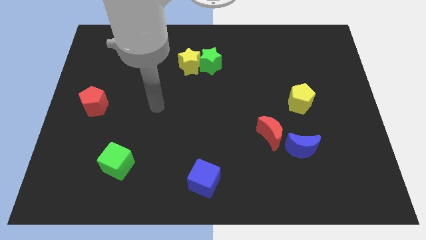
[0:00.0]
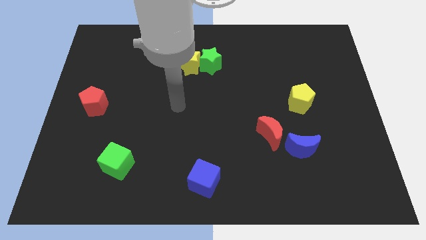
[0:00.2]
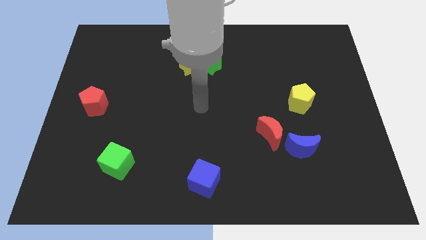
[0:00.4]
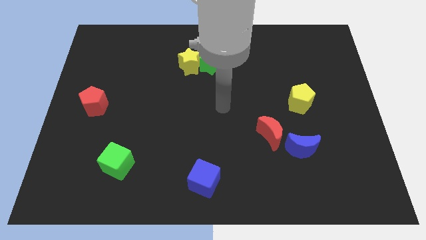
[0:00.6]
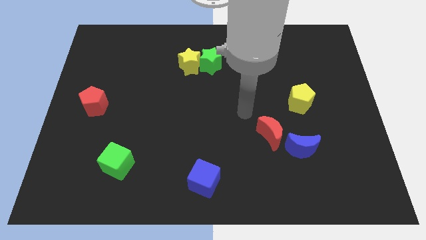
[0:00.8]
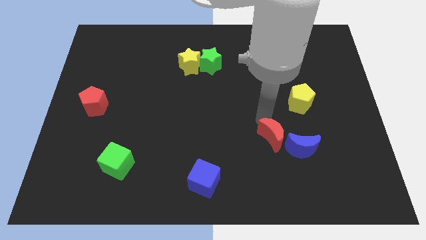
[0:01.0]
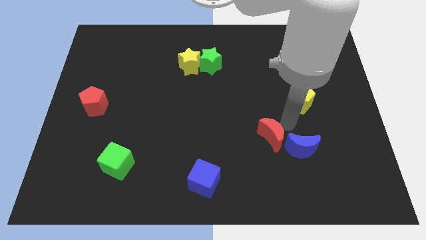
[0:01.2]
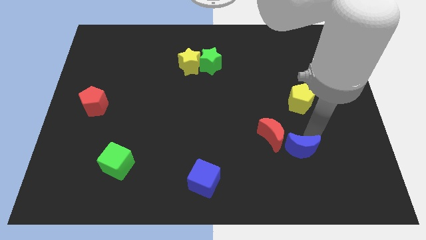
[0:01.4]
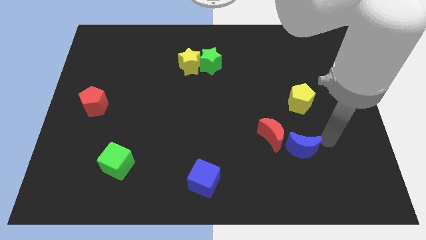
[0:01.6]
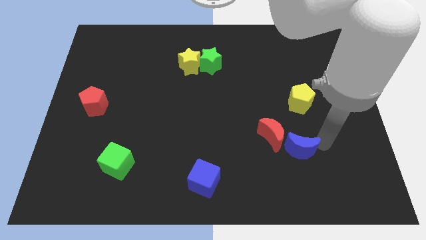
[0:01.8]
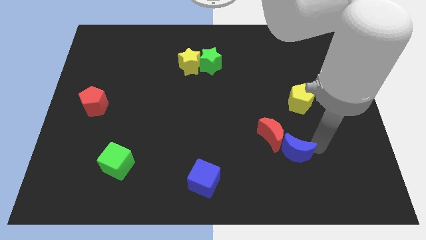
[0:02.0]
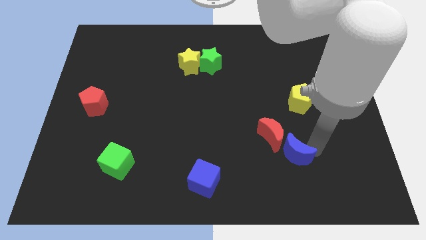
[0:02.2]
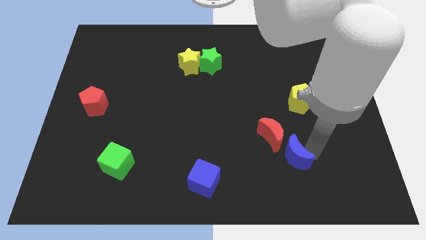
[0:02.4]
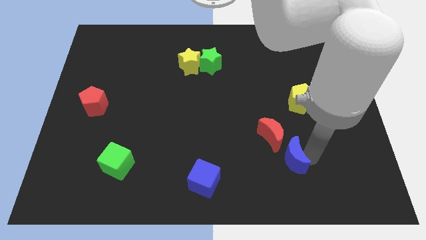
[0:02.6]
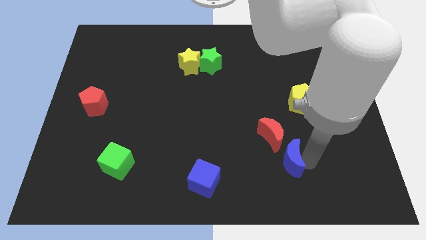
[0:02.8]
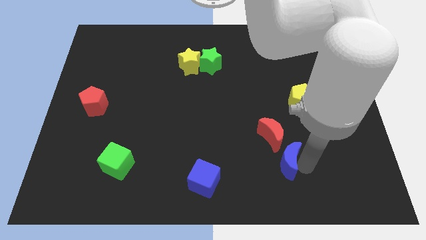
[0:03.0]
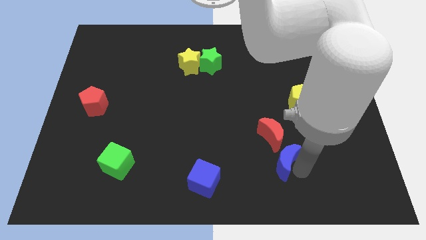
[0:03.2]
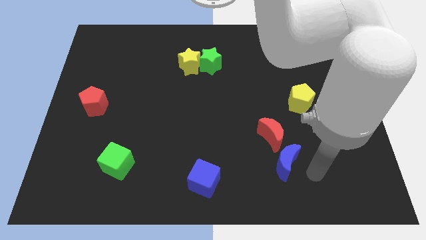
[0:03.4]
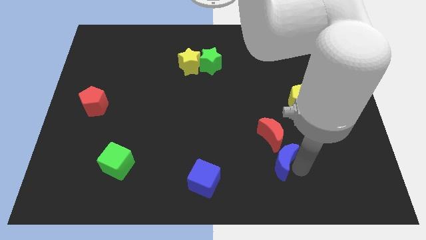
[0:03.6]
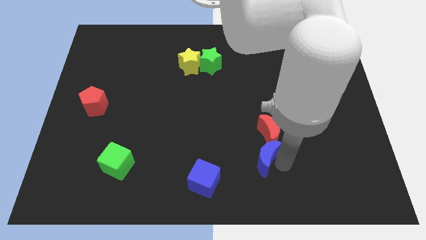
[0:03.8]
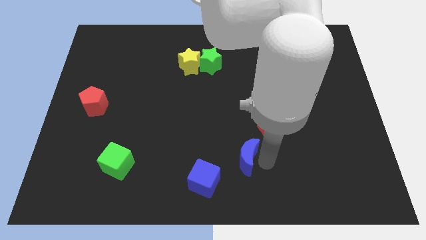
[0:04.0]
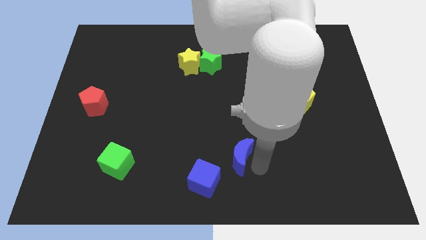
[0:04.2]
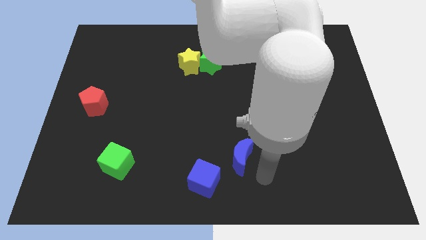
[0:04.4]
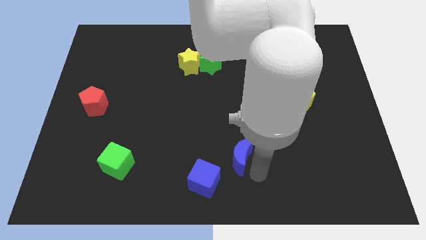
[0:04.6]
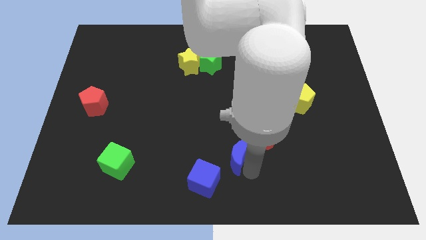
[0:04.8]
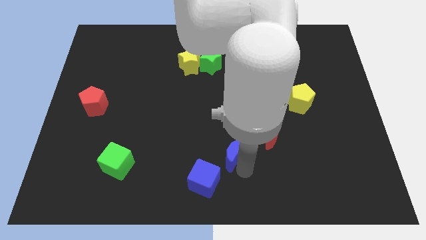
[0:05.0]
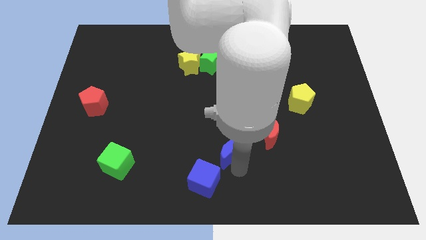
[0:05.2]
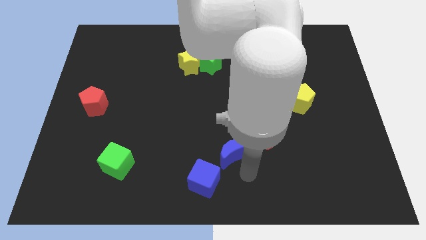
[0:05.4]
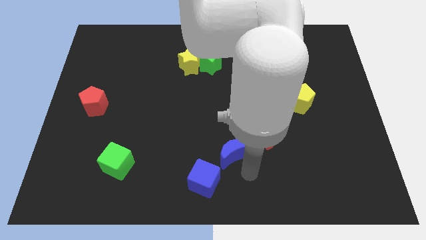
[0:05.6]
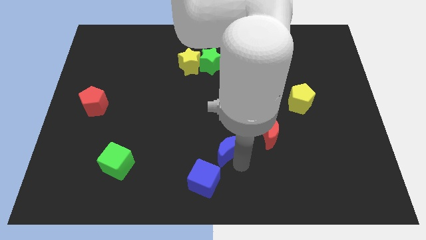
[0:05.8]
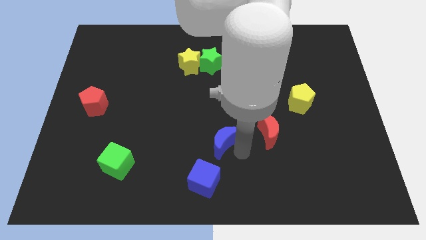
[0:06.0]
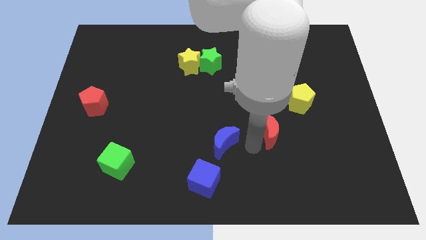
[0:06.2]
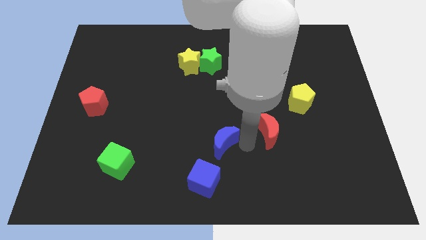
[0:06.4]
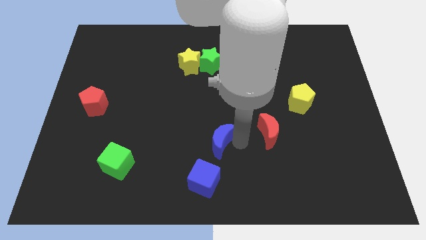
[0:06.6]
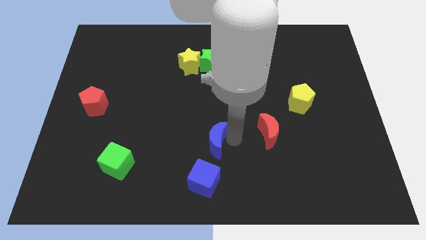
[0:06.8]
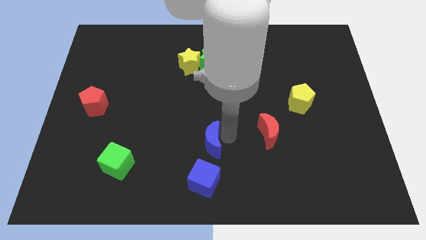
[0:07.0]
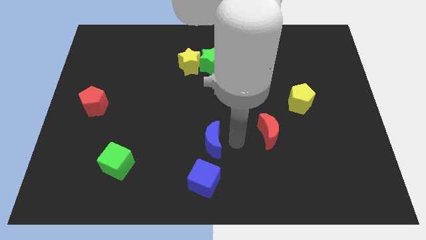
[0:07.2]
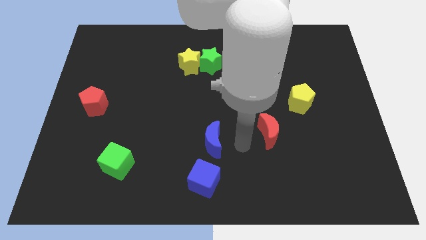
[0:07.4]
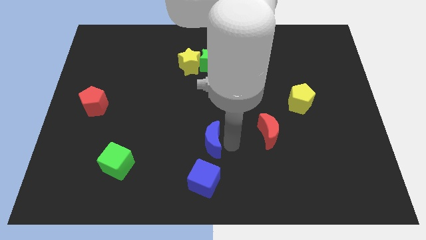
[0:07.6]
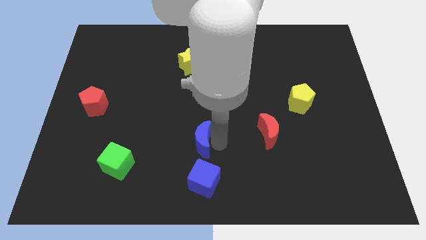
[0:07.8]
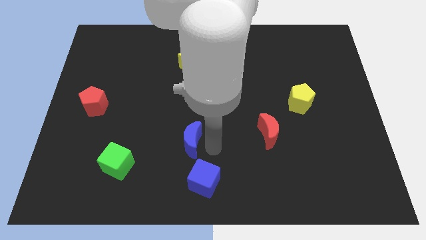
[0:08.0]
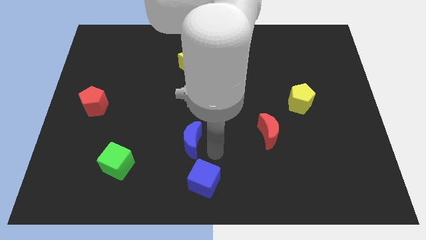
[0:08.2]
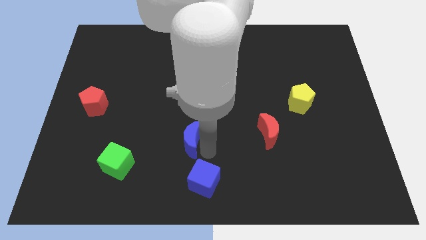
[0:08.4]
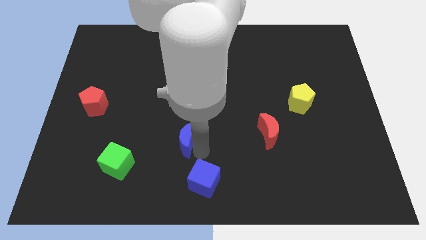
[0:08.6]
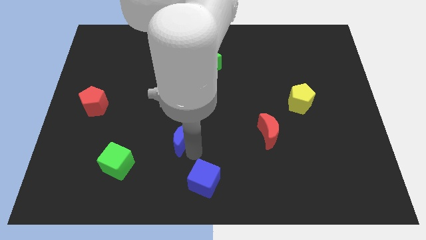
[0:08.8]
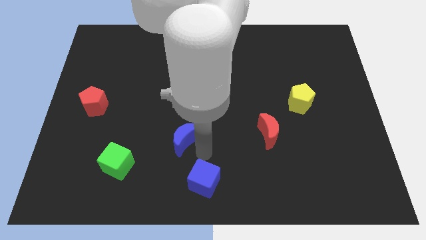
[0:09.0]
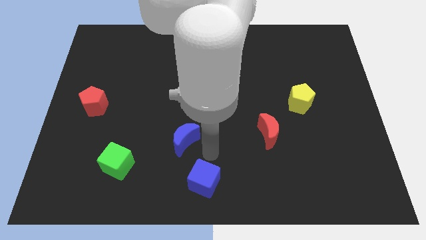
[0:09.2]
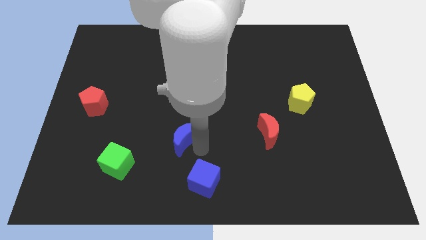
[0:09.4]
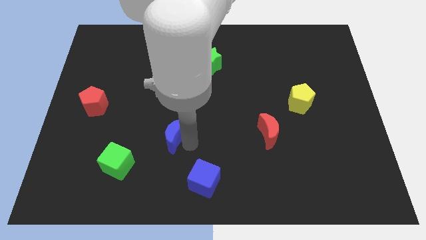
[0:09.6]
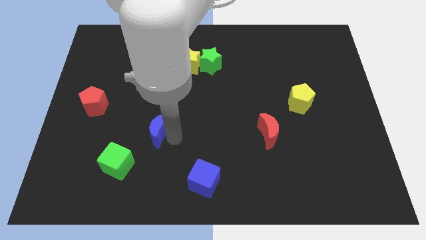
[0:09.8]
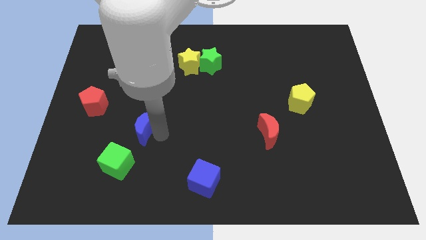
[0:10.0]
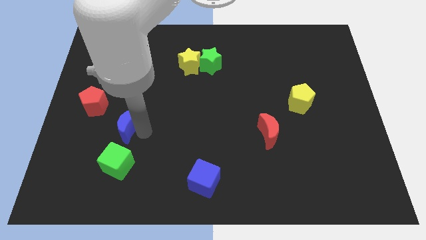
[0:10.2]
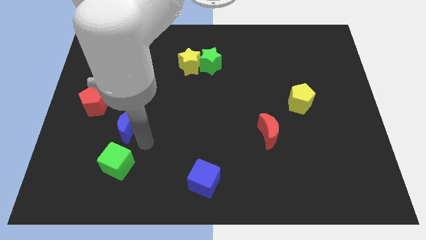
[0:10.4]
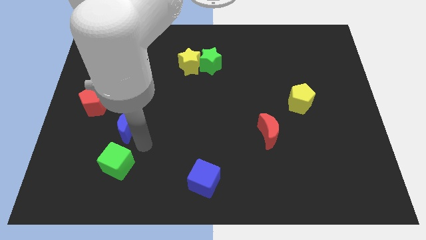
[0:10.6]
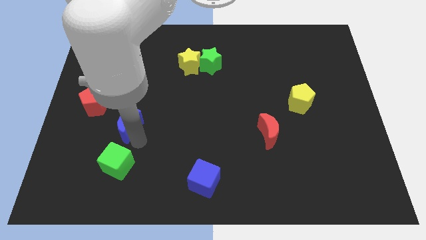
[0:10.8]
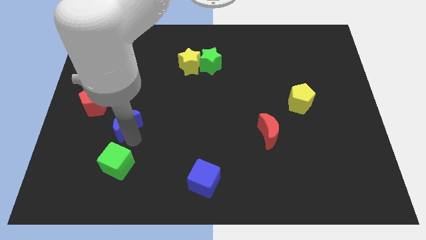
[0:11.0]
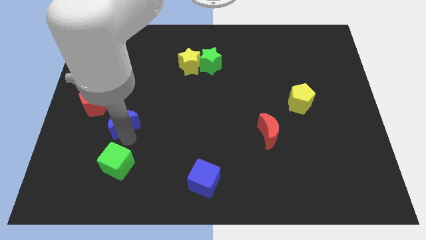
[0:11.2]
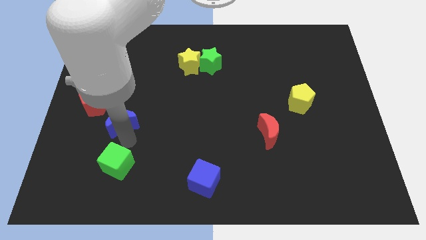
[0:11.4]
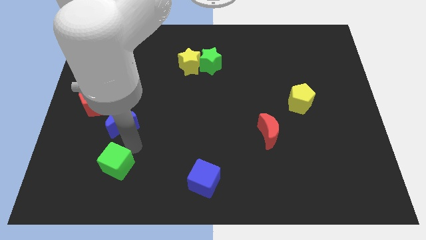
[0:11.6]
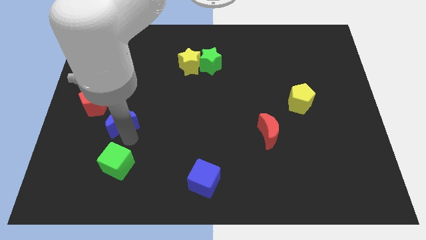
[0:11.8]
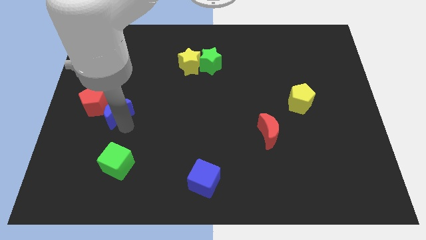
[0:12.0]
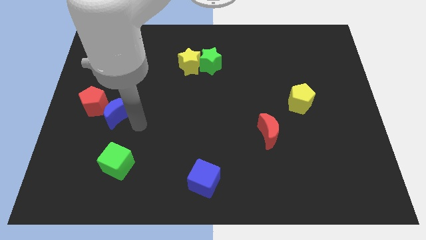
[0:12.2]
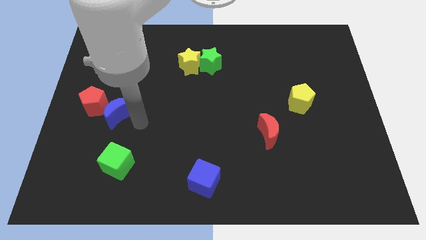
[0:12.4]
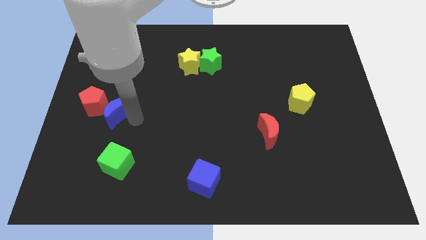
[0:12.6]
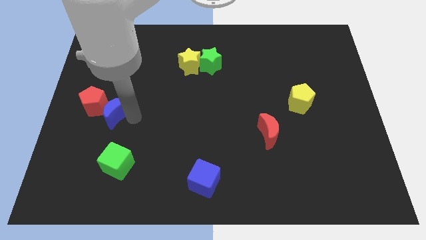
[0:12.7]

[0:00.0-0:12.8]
slide the blue moon close to the red pentagon

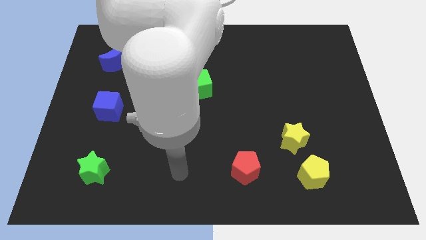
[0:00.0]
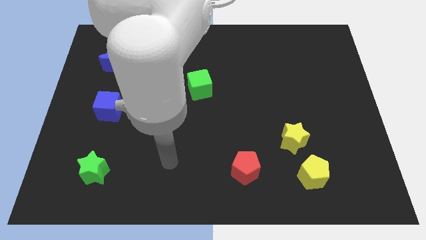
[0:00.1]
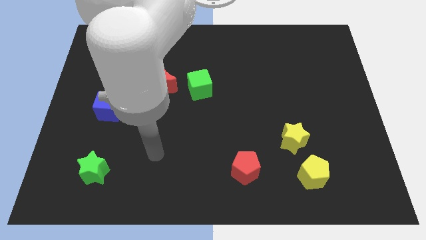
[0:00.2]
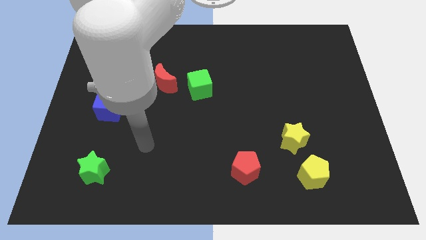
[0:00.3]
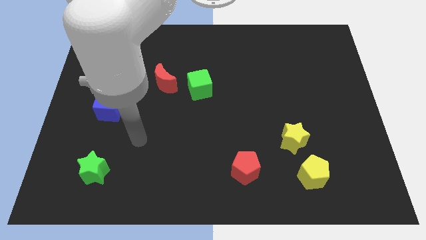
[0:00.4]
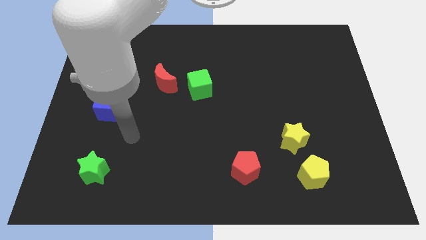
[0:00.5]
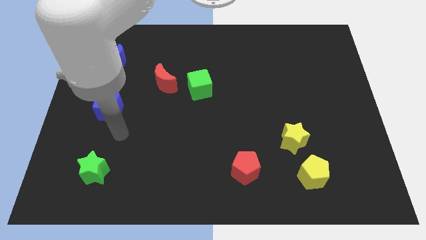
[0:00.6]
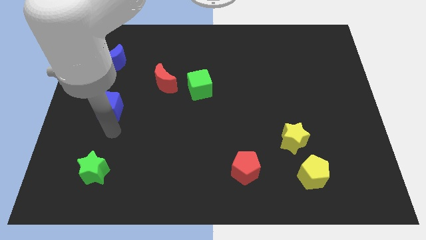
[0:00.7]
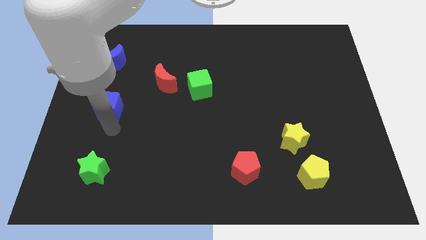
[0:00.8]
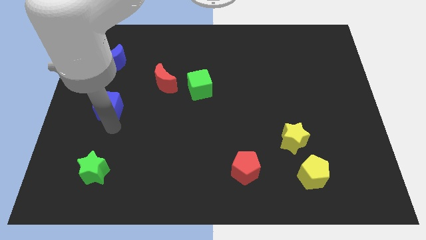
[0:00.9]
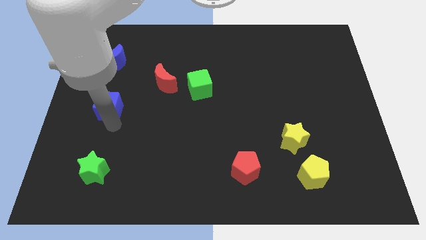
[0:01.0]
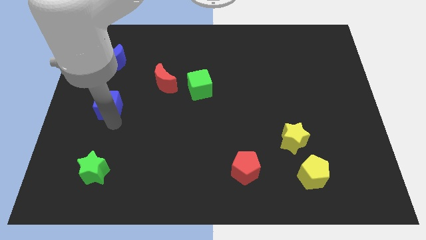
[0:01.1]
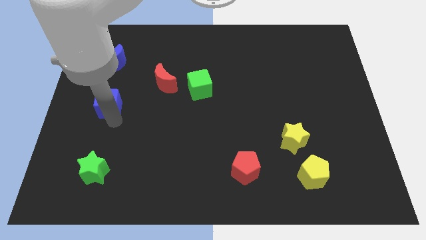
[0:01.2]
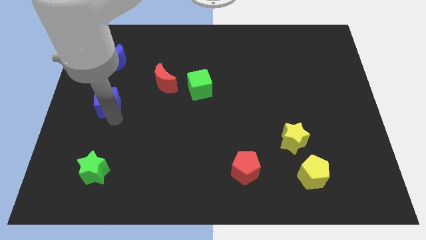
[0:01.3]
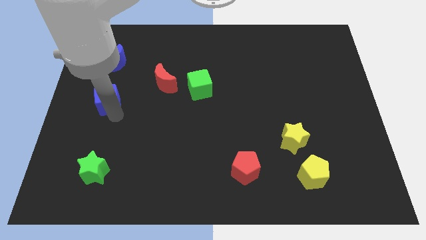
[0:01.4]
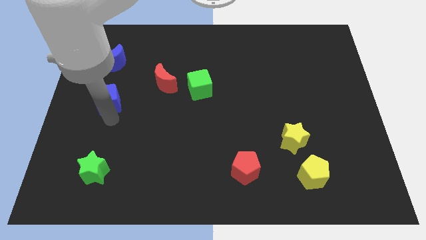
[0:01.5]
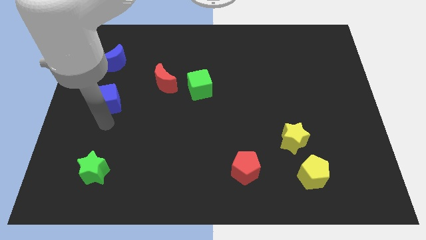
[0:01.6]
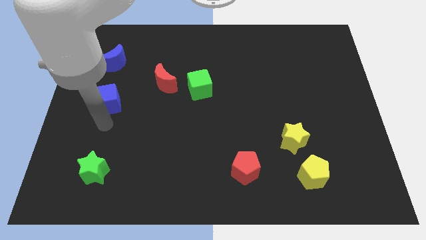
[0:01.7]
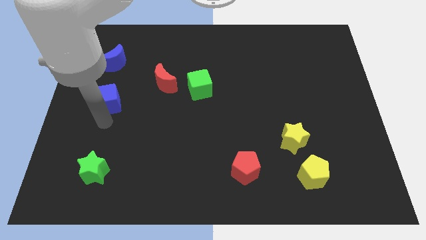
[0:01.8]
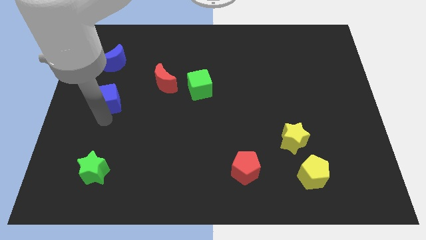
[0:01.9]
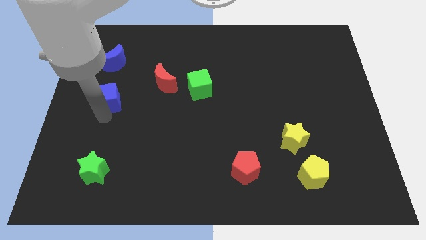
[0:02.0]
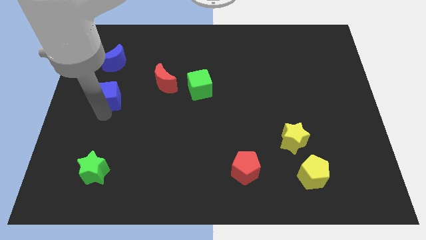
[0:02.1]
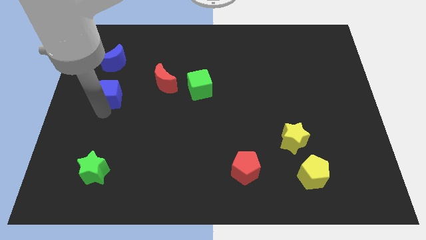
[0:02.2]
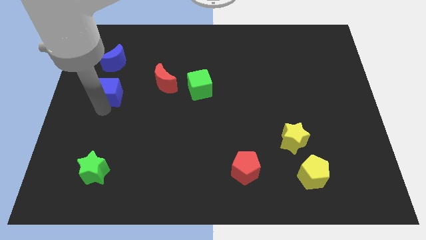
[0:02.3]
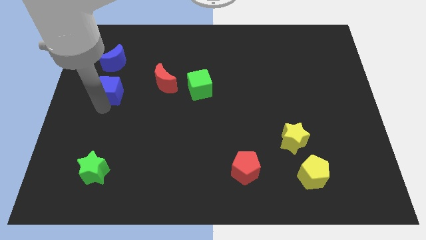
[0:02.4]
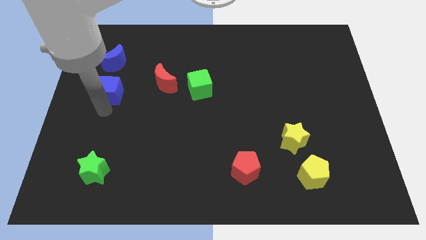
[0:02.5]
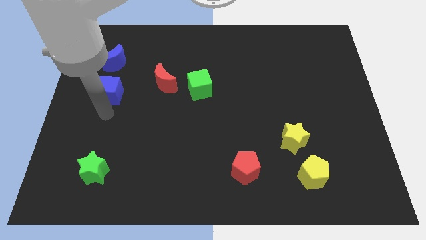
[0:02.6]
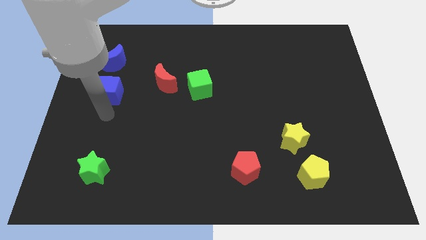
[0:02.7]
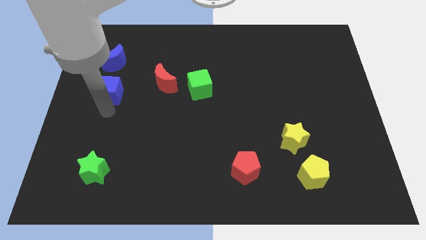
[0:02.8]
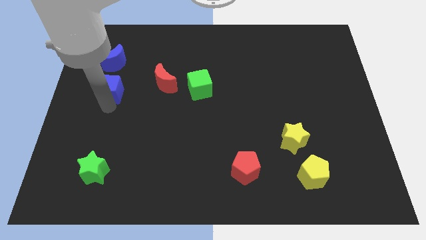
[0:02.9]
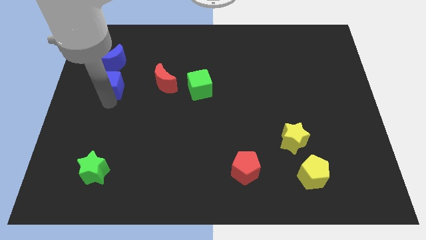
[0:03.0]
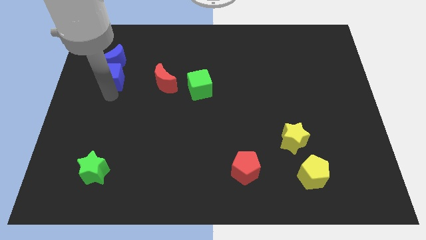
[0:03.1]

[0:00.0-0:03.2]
push the blue cube towards the blue moon
